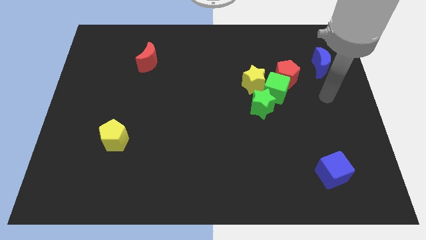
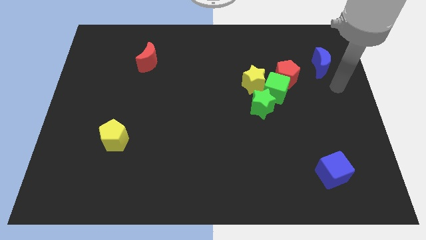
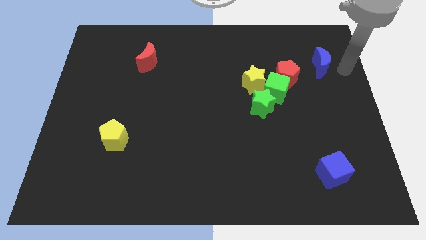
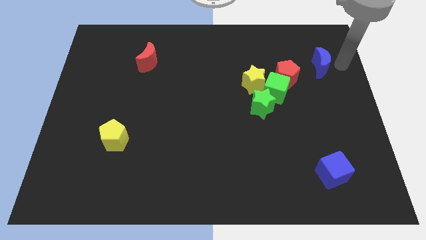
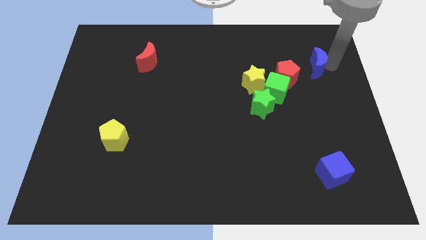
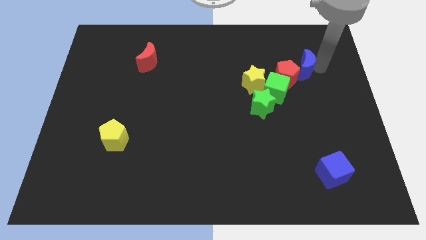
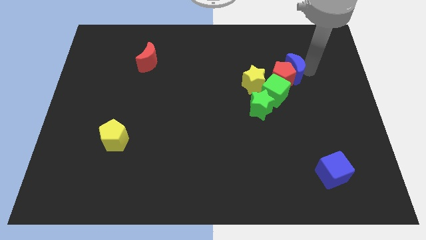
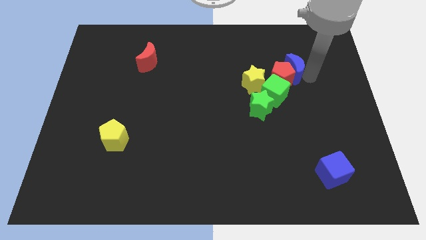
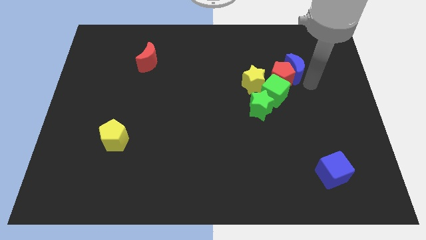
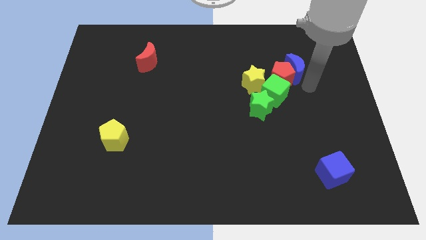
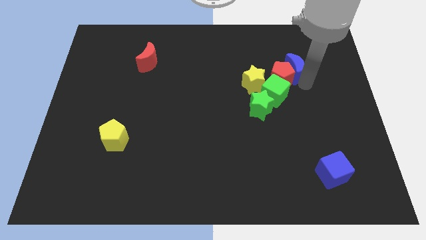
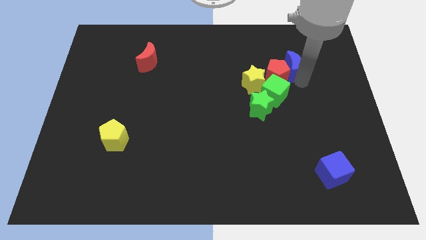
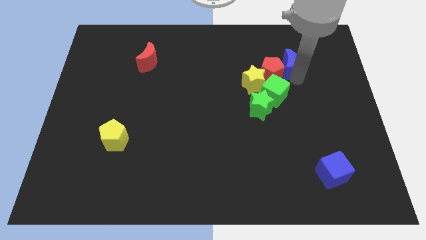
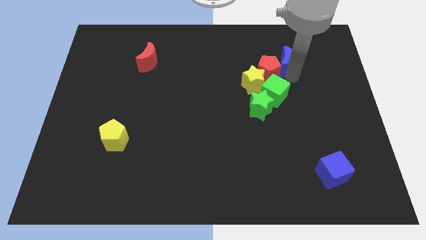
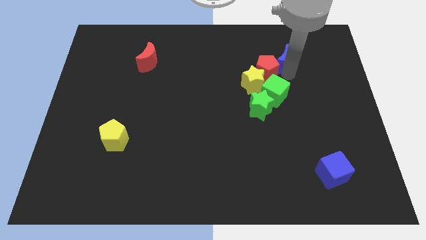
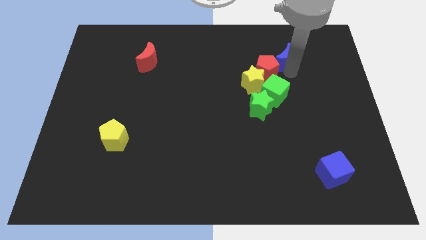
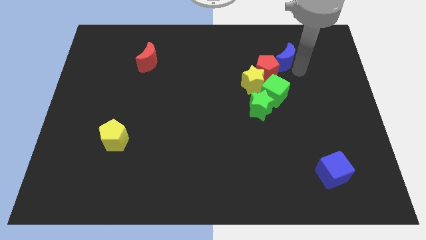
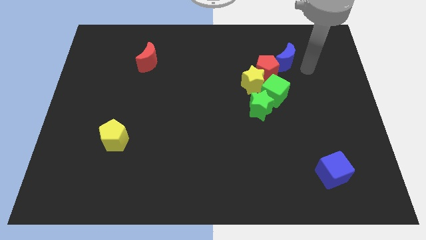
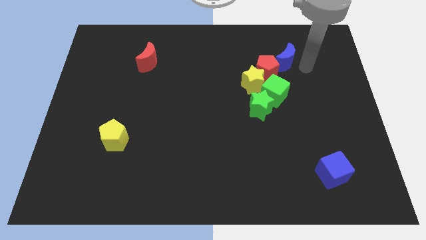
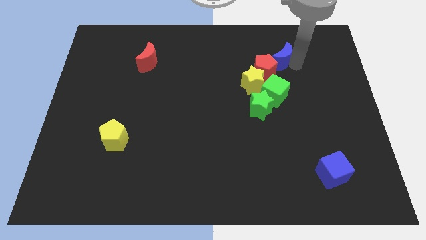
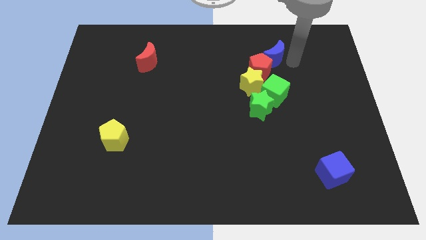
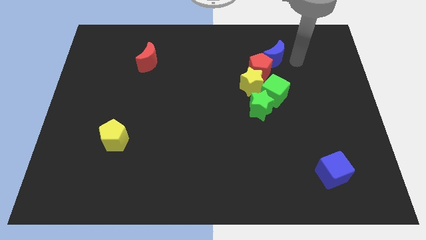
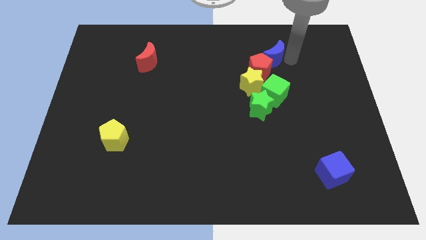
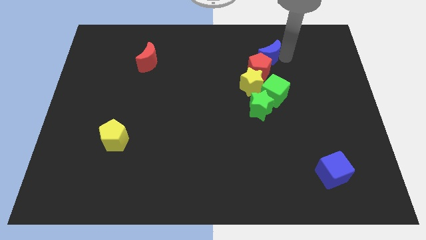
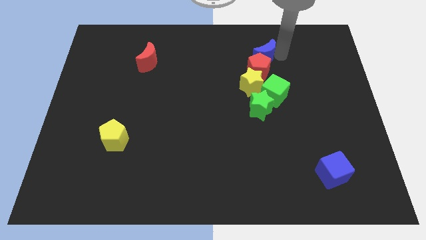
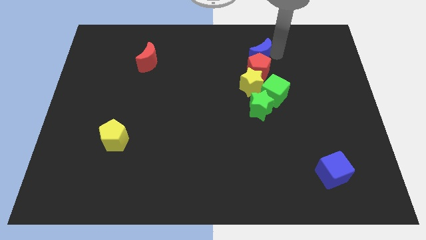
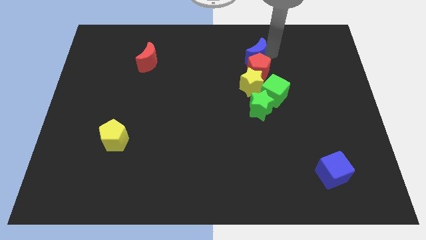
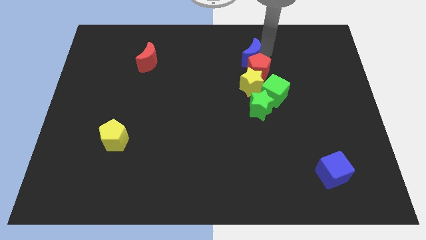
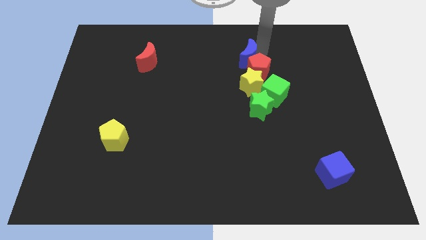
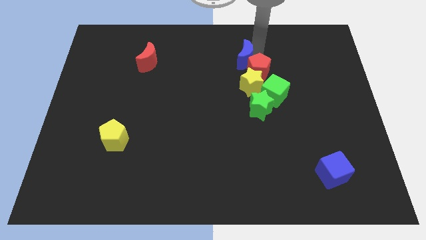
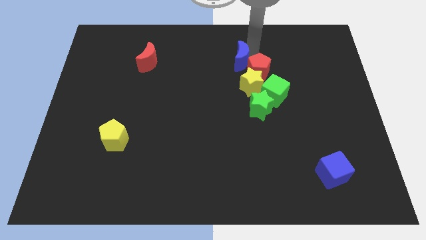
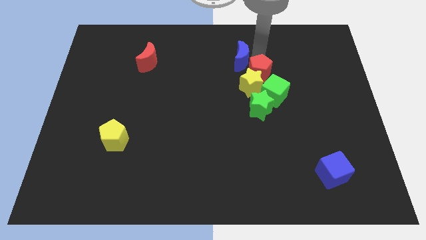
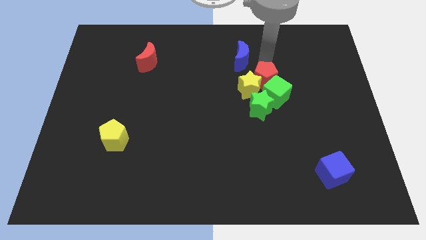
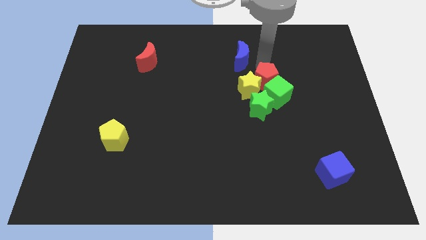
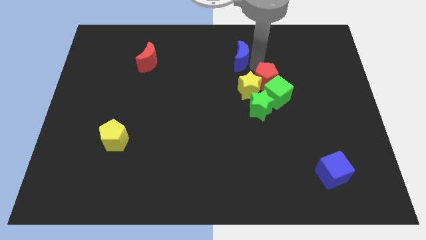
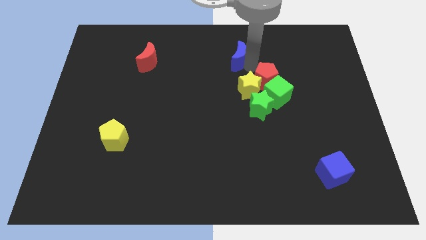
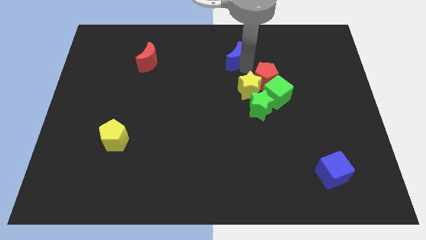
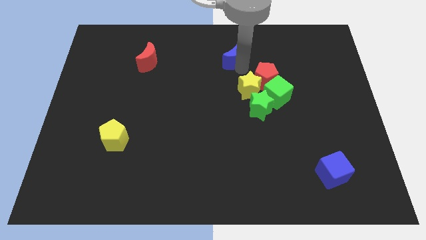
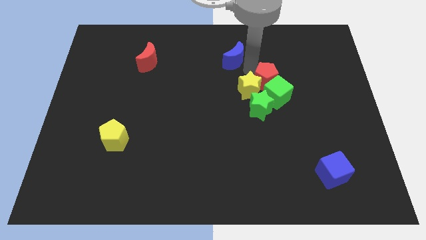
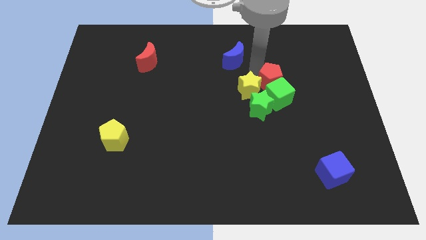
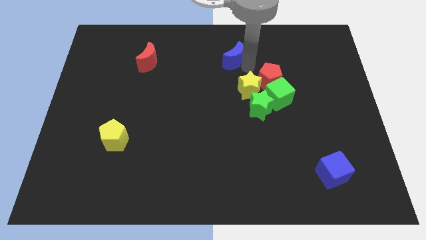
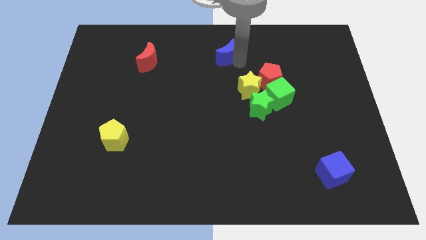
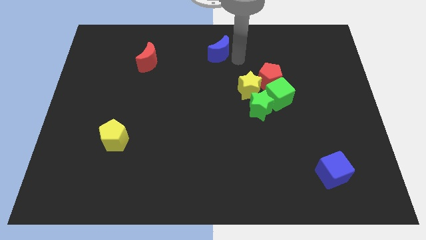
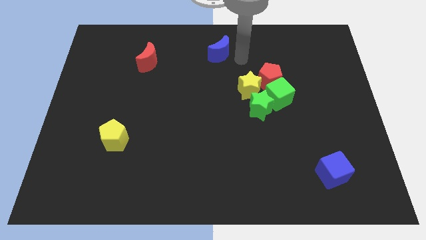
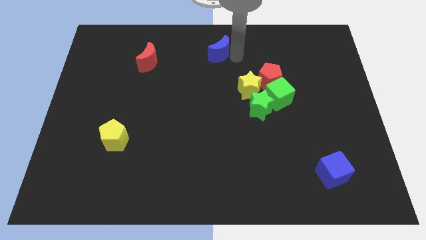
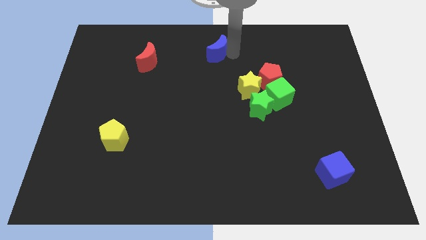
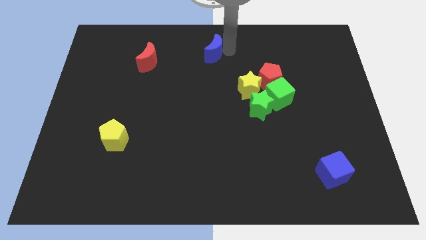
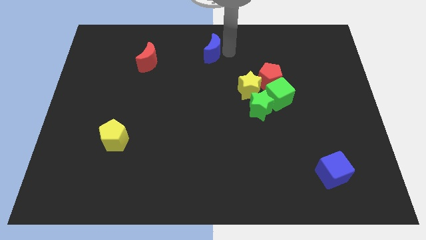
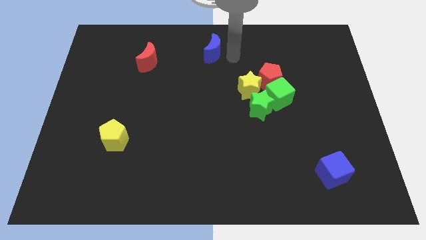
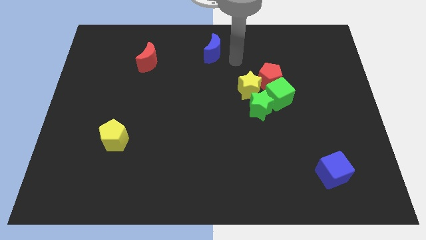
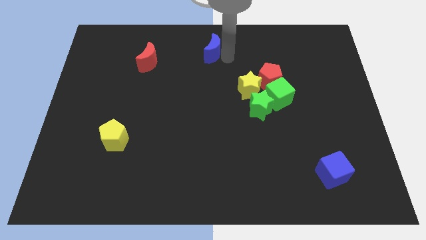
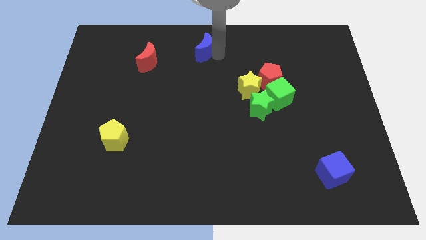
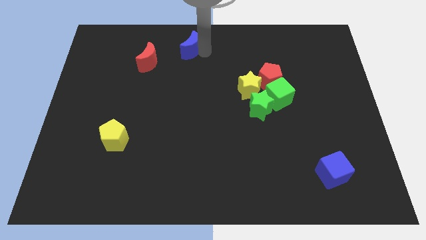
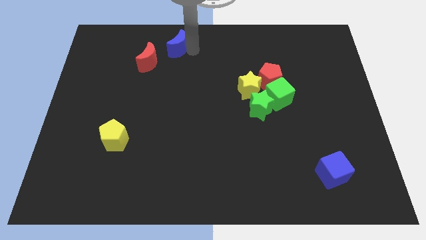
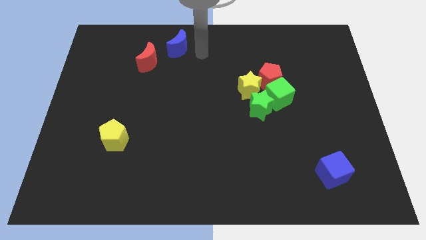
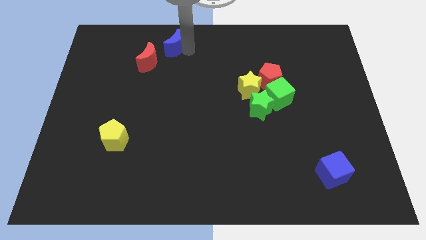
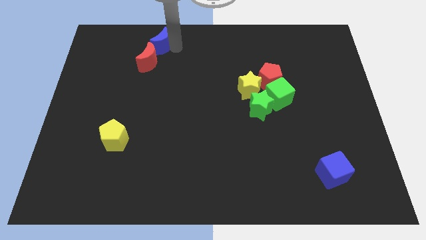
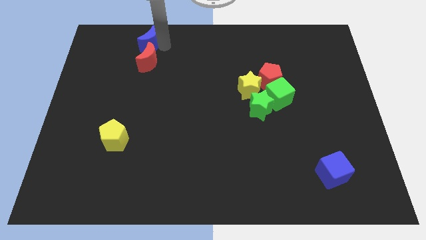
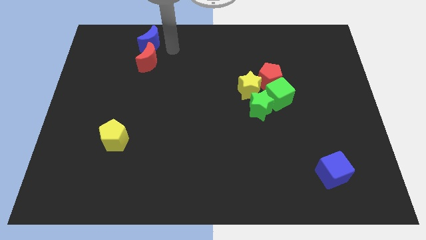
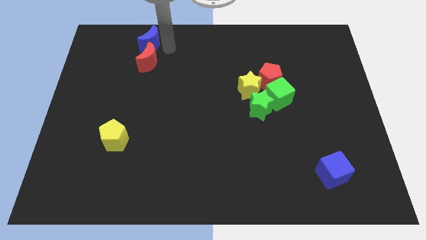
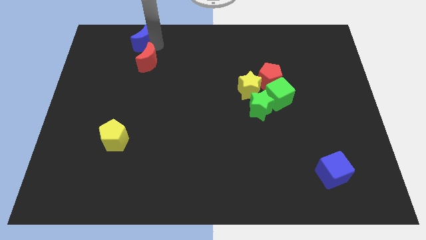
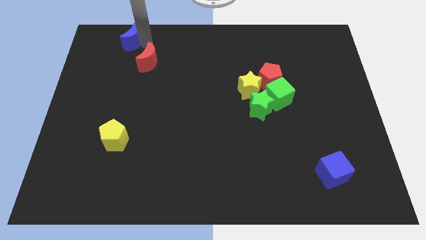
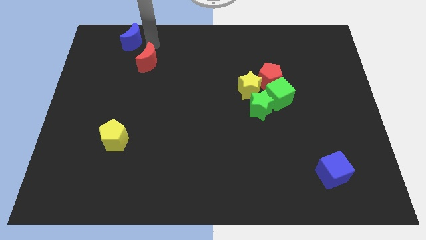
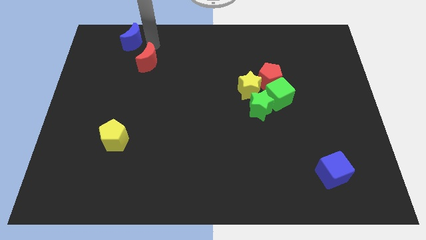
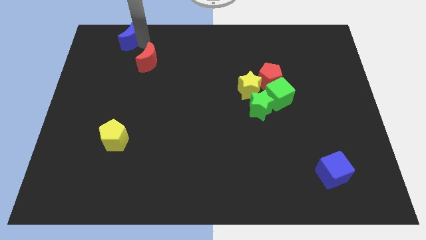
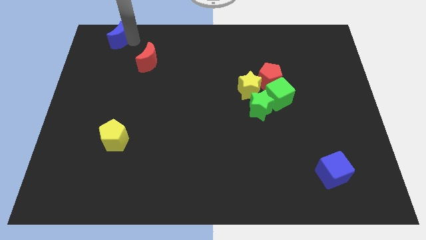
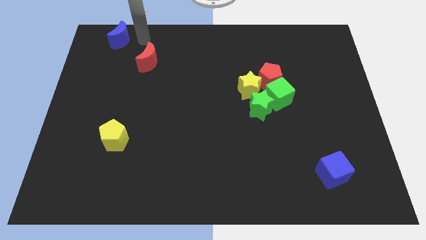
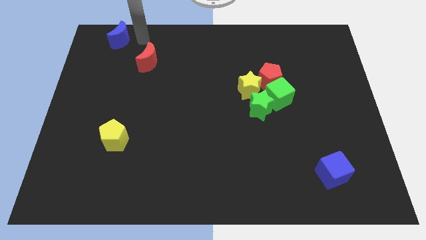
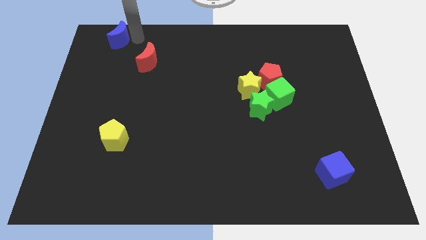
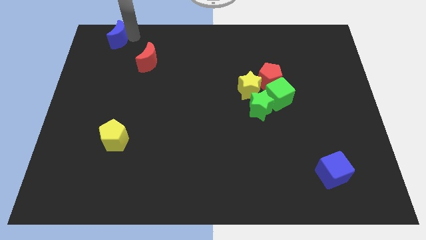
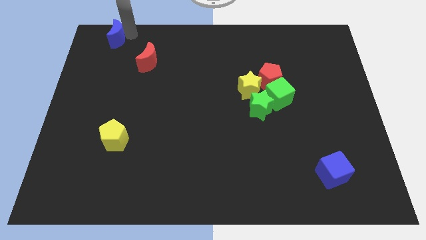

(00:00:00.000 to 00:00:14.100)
put the blue moon to the upper left corner
